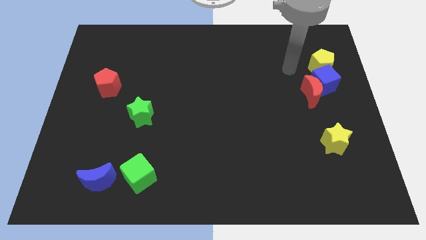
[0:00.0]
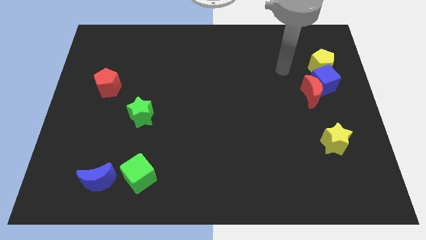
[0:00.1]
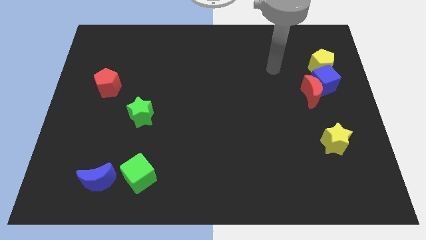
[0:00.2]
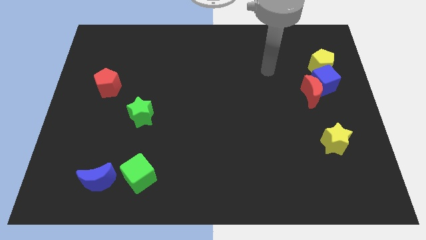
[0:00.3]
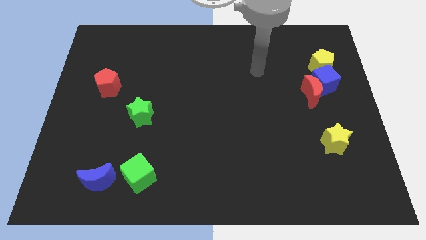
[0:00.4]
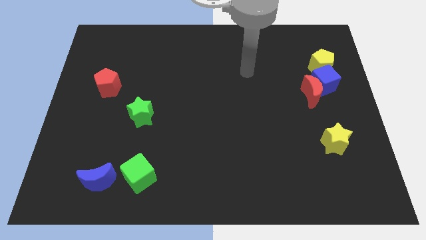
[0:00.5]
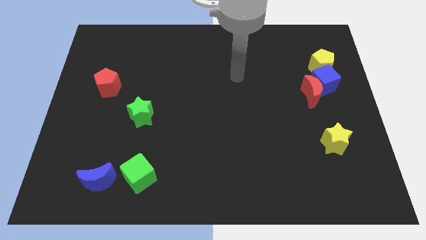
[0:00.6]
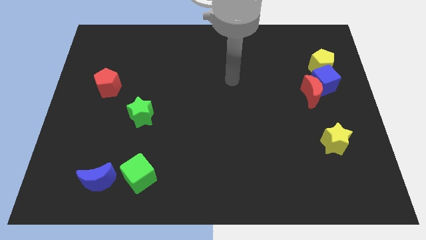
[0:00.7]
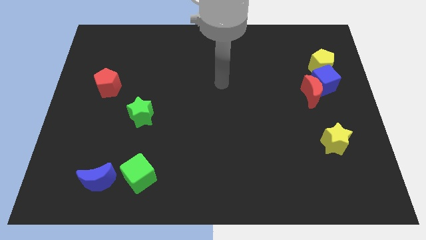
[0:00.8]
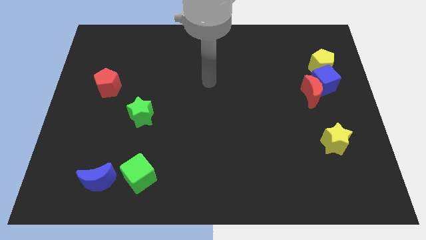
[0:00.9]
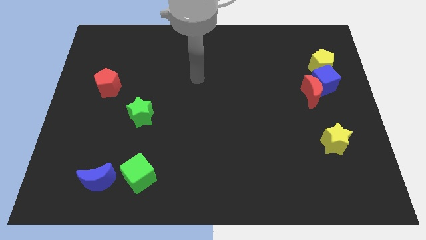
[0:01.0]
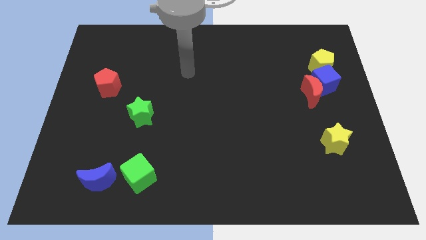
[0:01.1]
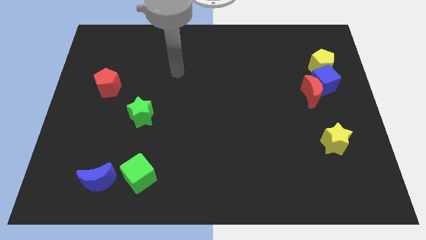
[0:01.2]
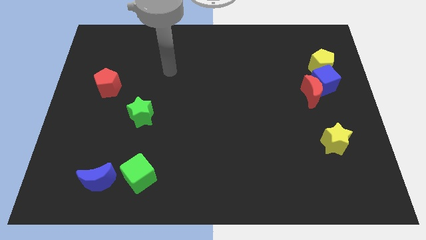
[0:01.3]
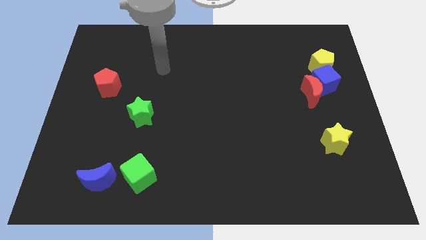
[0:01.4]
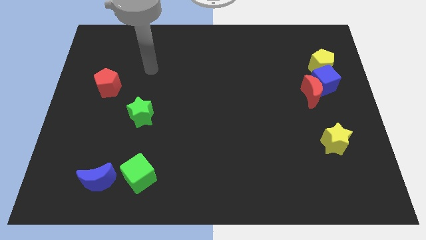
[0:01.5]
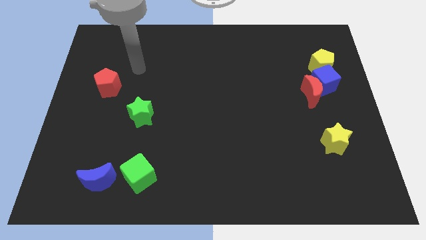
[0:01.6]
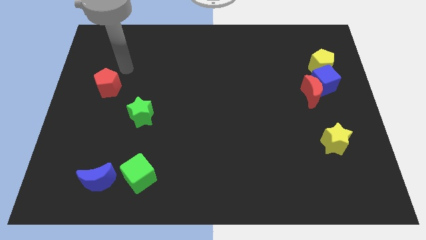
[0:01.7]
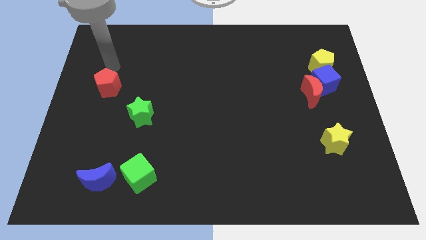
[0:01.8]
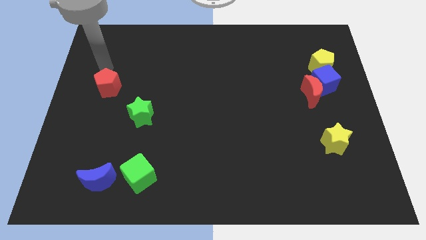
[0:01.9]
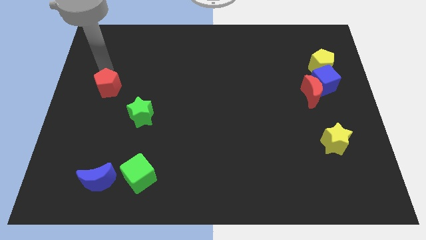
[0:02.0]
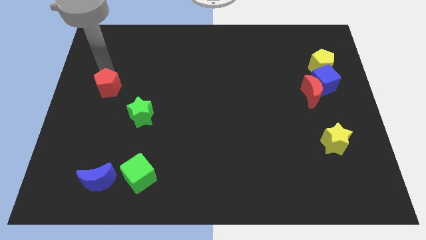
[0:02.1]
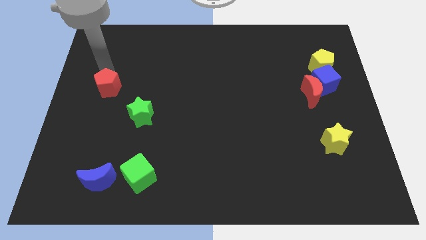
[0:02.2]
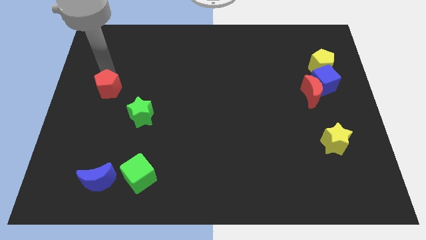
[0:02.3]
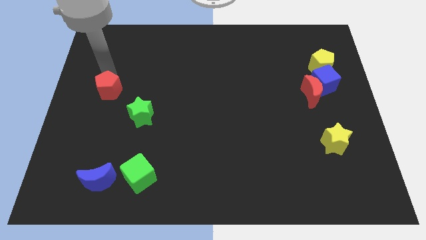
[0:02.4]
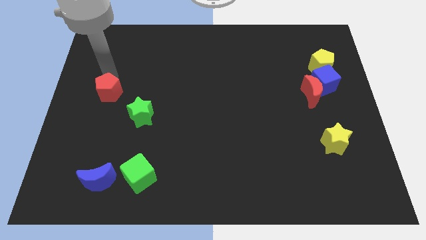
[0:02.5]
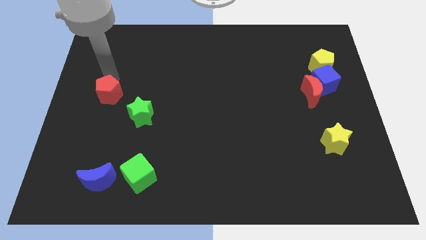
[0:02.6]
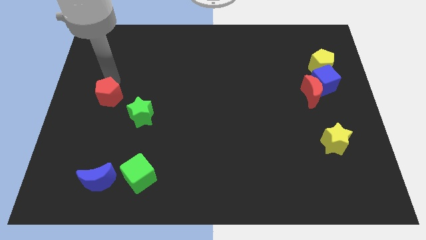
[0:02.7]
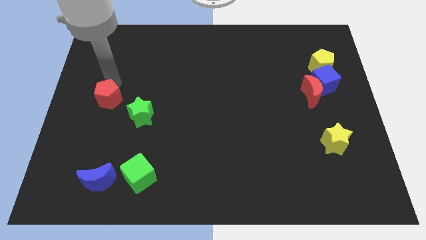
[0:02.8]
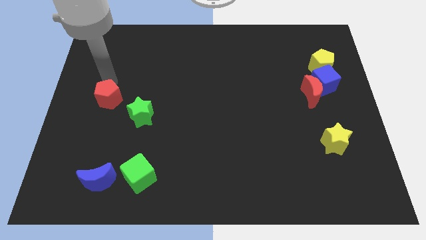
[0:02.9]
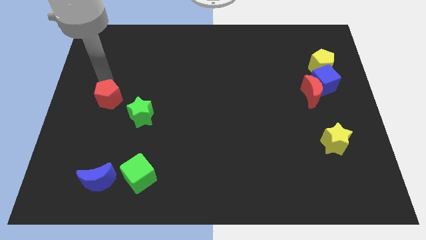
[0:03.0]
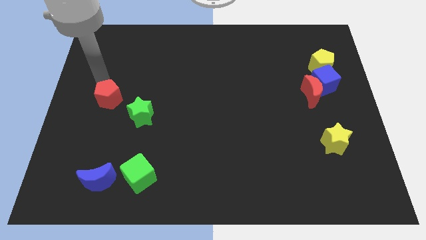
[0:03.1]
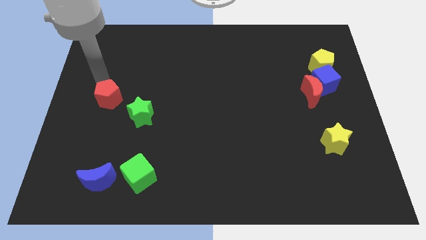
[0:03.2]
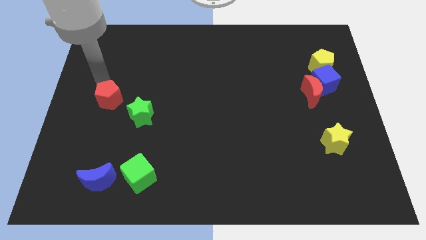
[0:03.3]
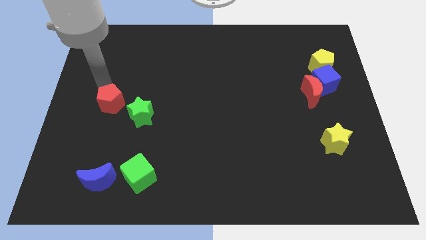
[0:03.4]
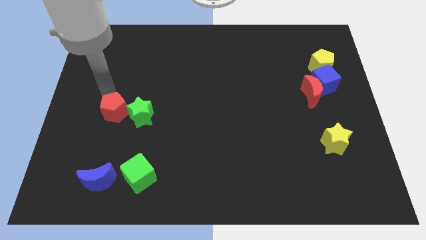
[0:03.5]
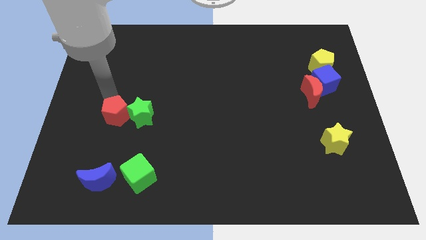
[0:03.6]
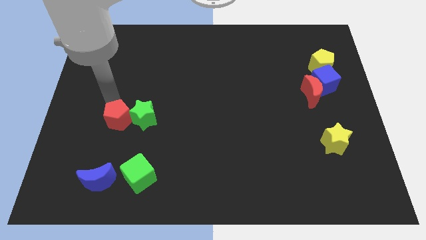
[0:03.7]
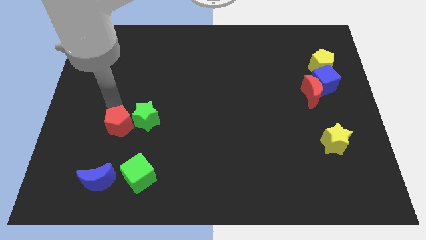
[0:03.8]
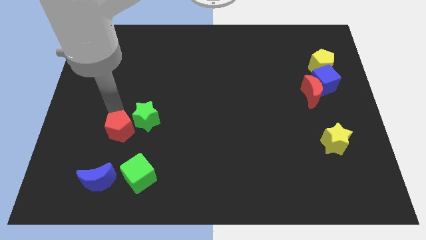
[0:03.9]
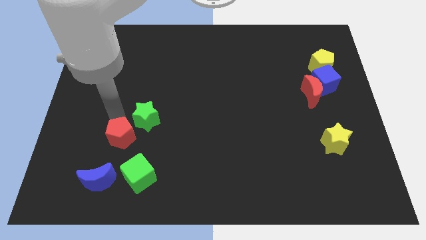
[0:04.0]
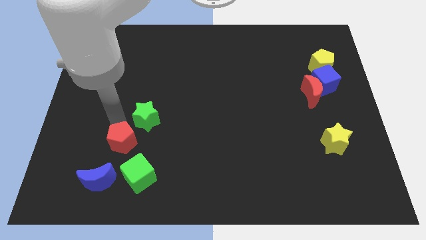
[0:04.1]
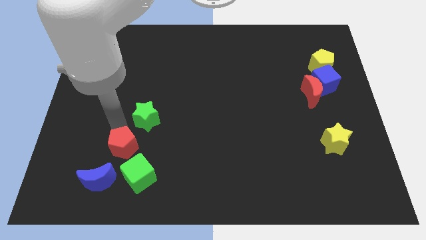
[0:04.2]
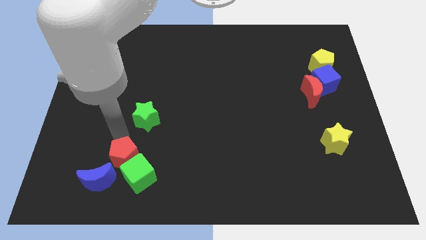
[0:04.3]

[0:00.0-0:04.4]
put the red pentagon to the green cube

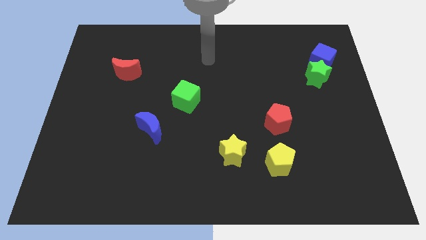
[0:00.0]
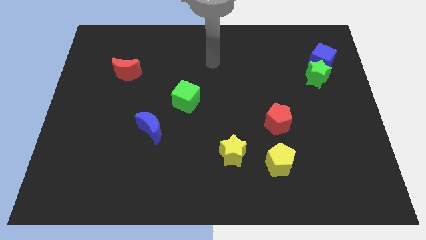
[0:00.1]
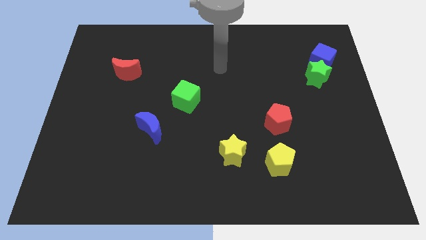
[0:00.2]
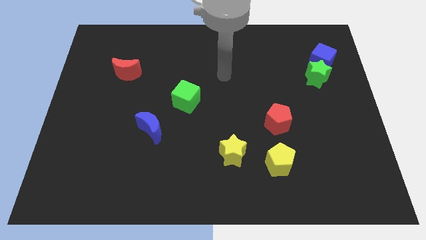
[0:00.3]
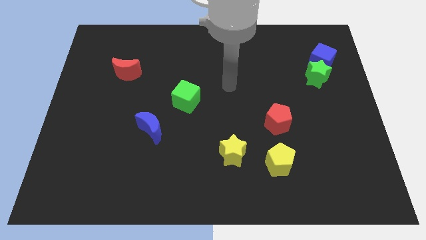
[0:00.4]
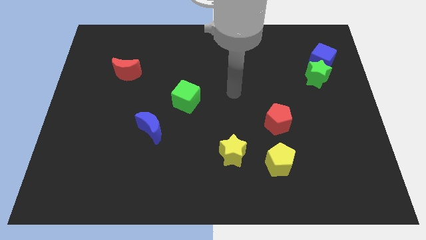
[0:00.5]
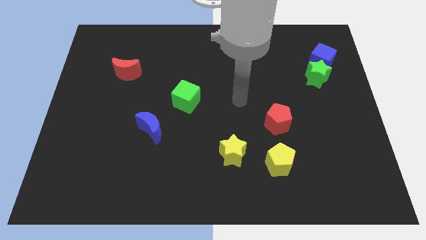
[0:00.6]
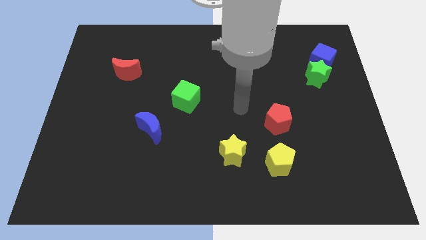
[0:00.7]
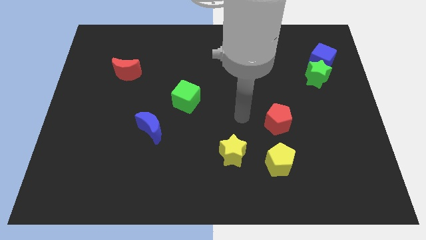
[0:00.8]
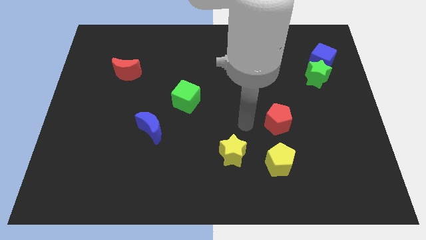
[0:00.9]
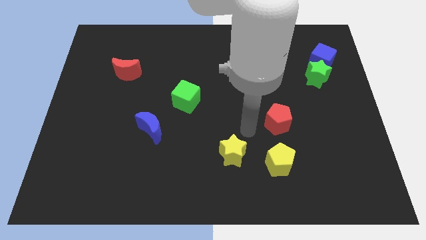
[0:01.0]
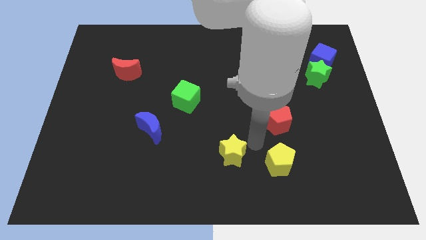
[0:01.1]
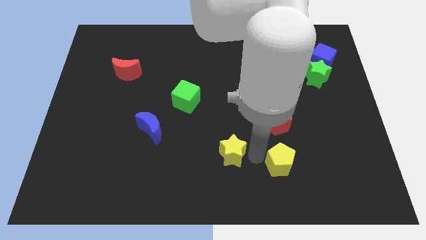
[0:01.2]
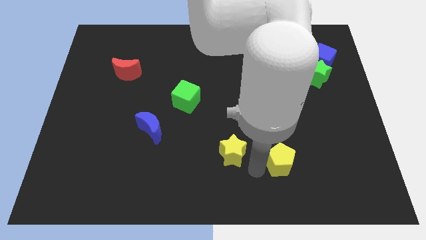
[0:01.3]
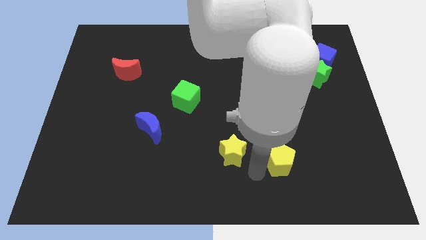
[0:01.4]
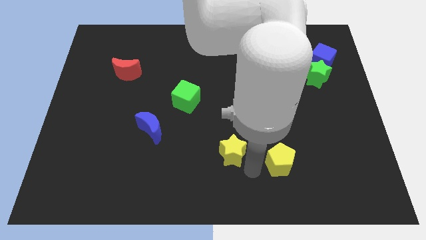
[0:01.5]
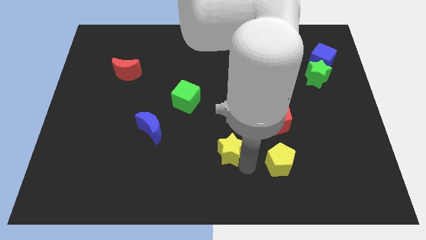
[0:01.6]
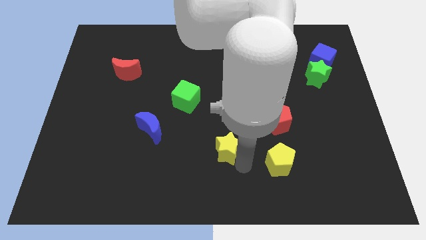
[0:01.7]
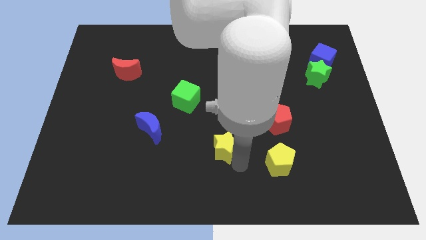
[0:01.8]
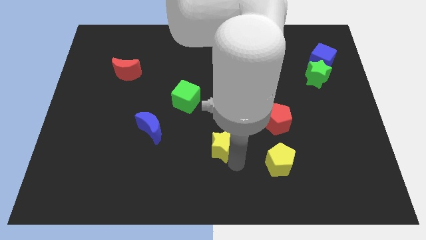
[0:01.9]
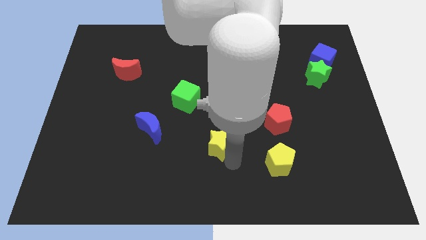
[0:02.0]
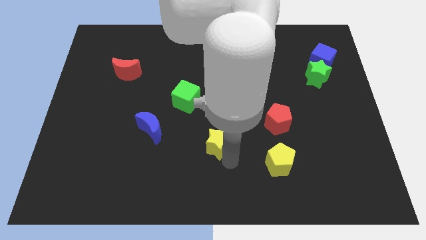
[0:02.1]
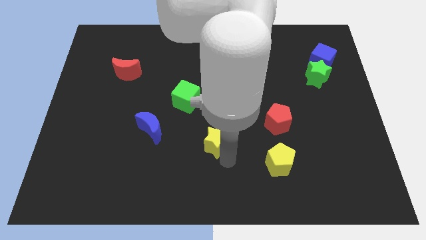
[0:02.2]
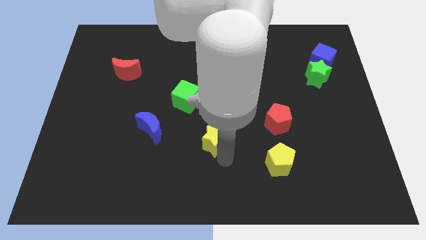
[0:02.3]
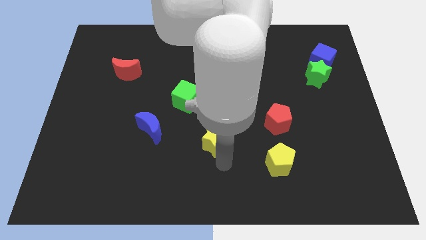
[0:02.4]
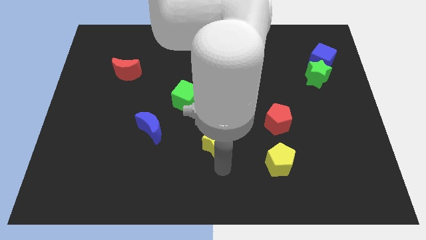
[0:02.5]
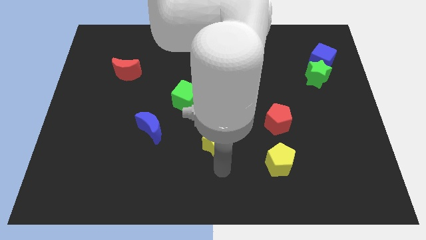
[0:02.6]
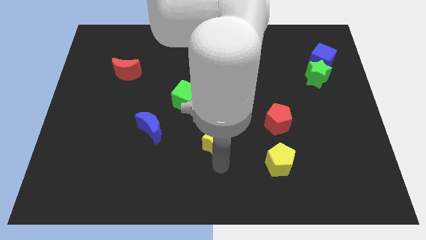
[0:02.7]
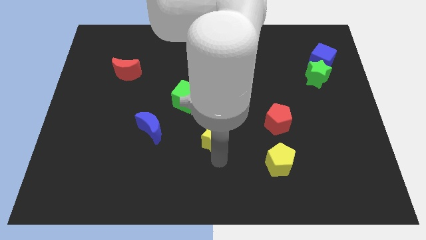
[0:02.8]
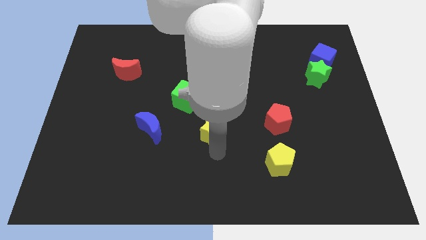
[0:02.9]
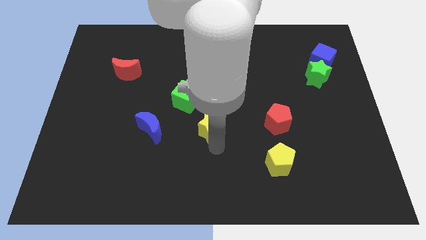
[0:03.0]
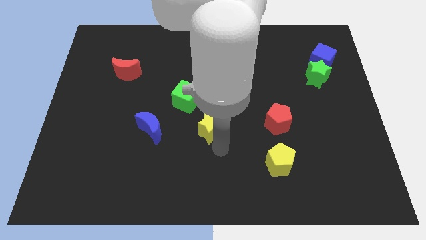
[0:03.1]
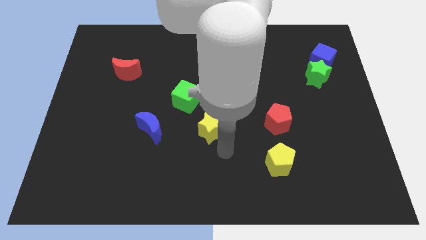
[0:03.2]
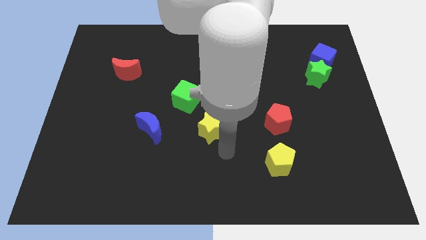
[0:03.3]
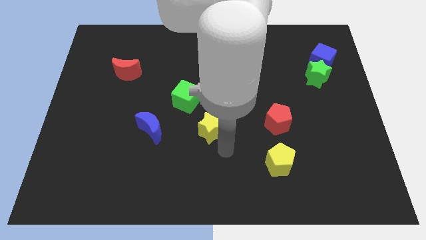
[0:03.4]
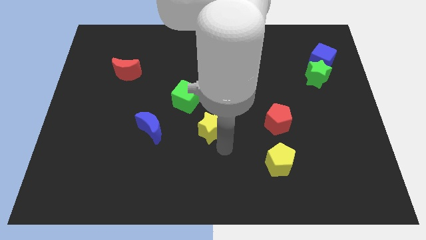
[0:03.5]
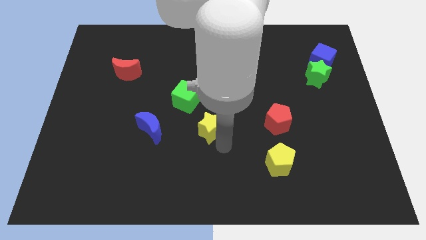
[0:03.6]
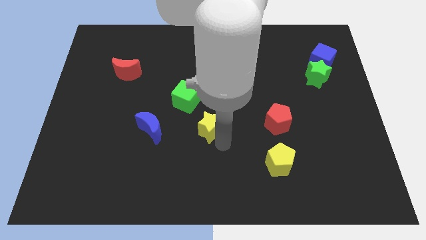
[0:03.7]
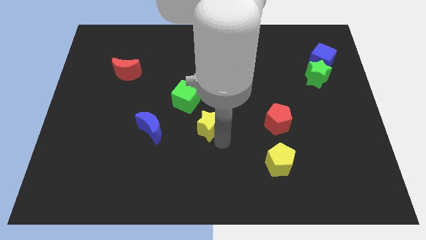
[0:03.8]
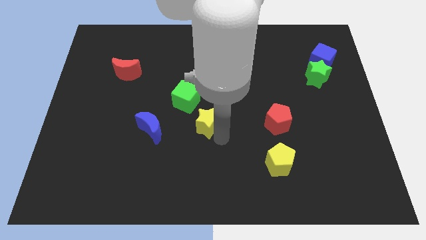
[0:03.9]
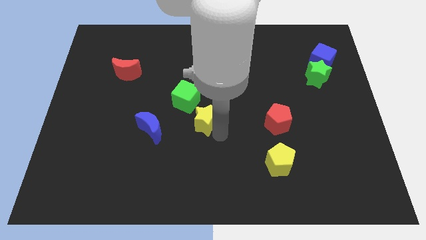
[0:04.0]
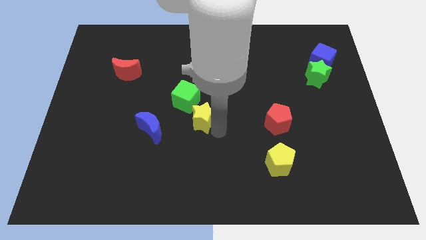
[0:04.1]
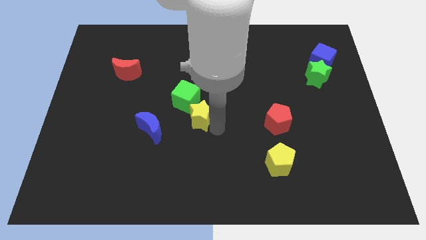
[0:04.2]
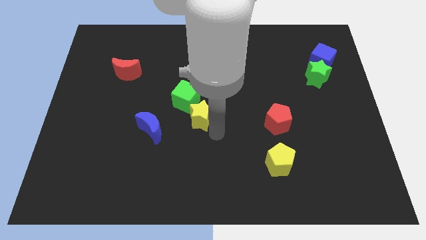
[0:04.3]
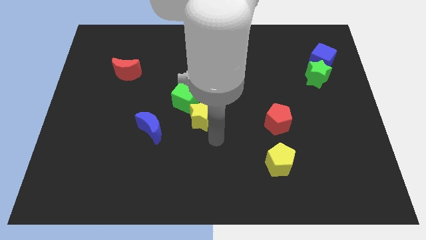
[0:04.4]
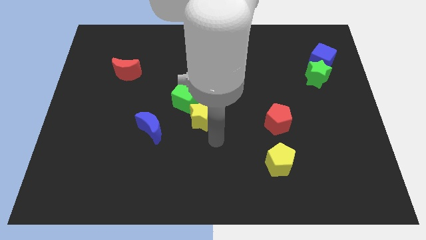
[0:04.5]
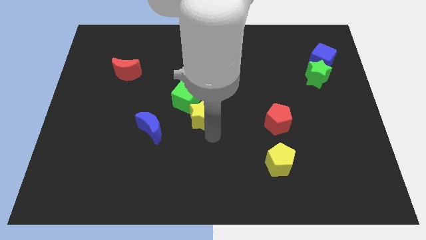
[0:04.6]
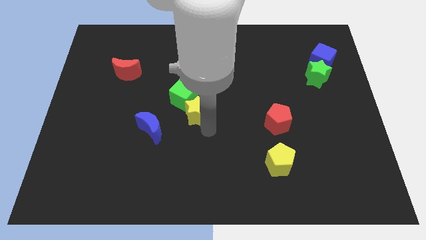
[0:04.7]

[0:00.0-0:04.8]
push the yellow star close to the green cube
